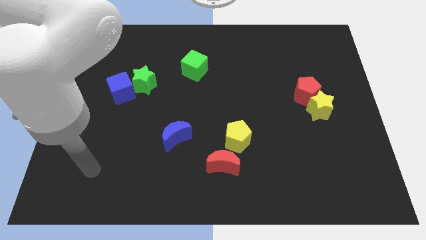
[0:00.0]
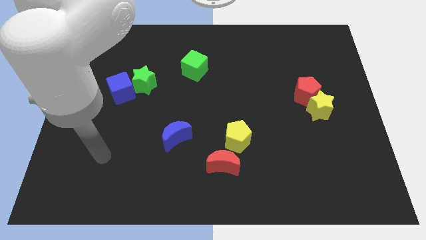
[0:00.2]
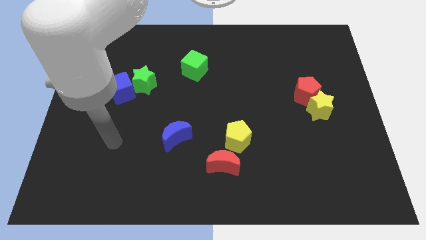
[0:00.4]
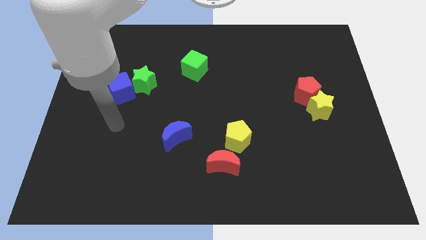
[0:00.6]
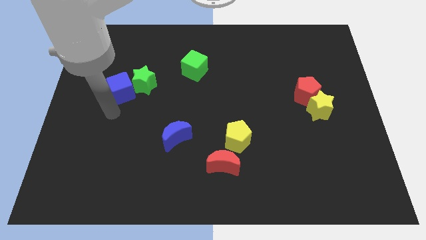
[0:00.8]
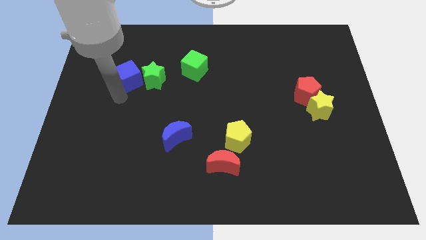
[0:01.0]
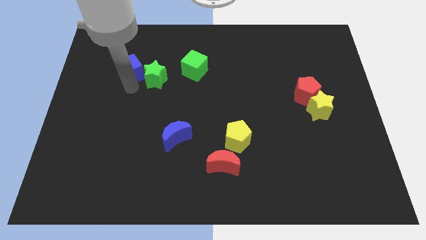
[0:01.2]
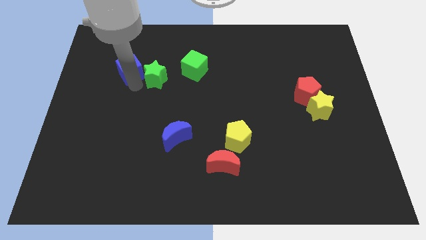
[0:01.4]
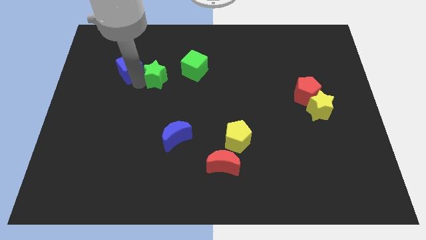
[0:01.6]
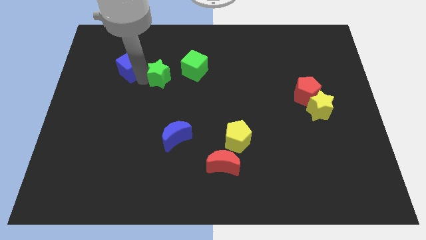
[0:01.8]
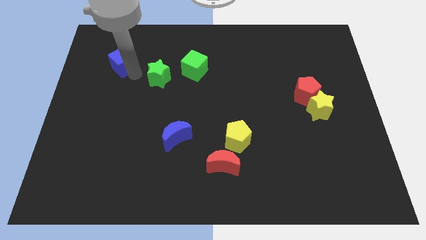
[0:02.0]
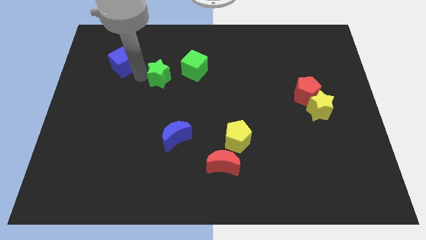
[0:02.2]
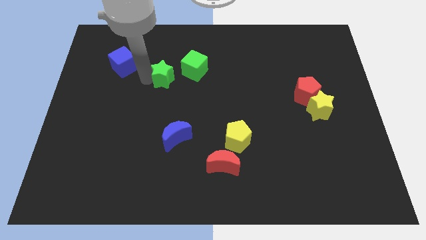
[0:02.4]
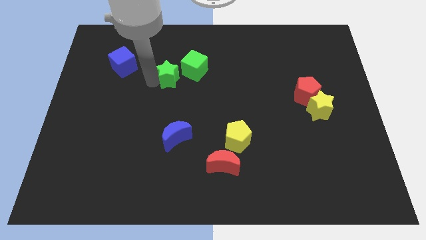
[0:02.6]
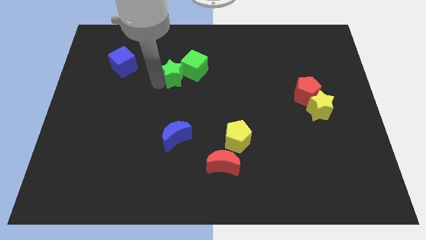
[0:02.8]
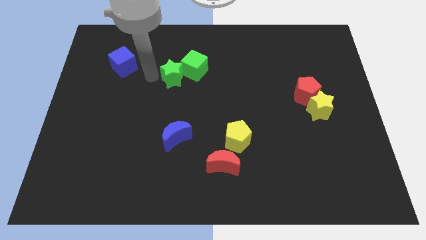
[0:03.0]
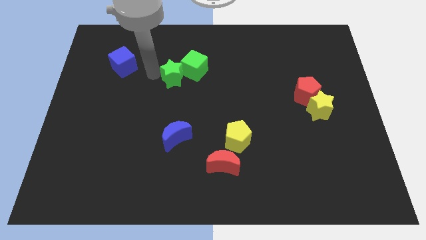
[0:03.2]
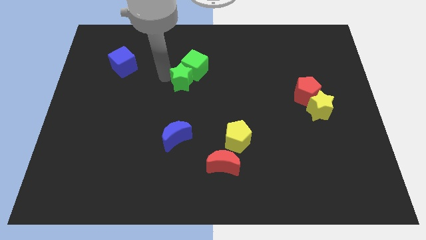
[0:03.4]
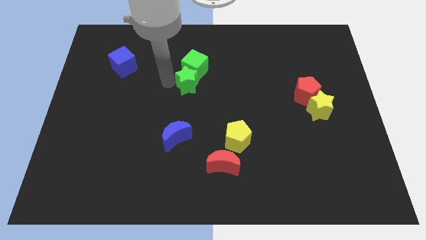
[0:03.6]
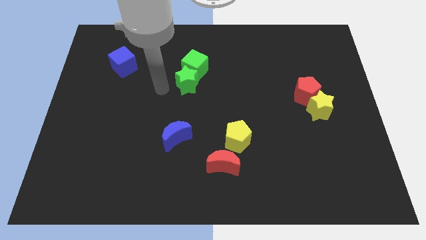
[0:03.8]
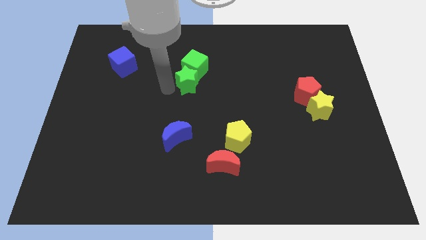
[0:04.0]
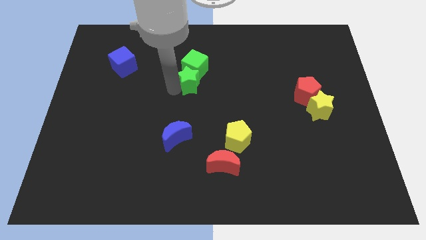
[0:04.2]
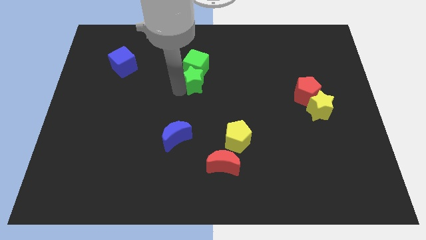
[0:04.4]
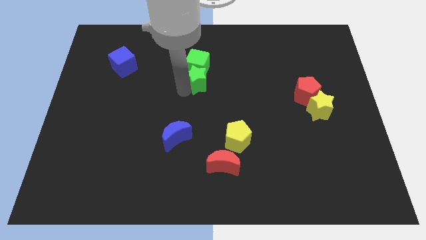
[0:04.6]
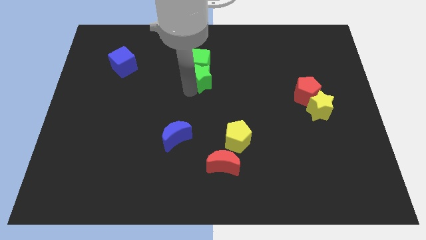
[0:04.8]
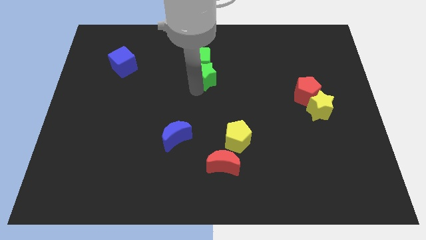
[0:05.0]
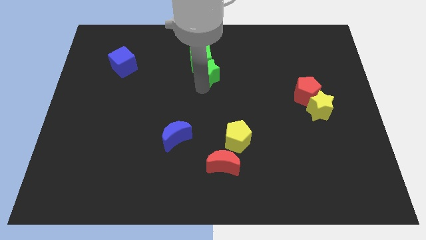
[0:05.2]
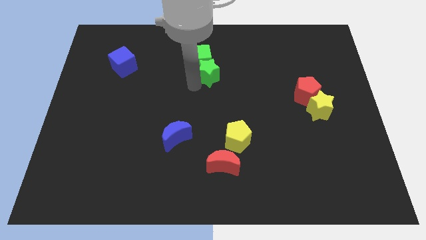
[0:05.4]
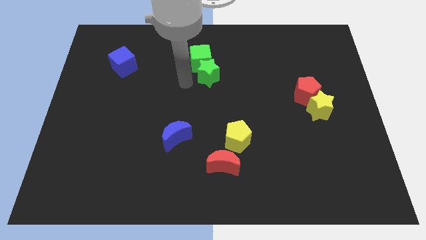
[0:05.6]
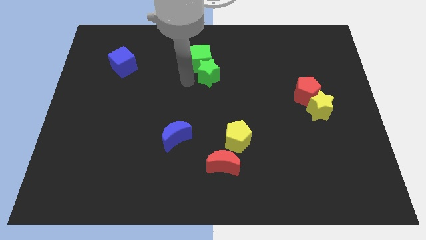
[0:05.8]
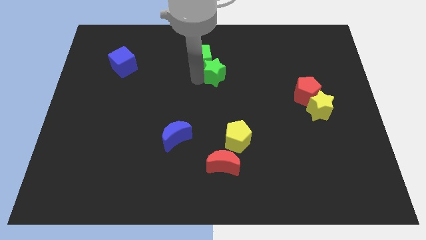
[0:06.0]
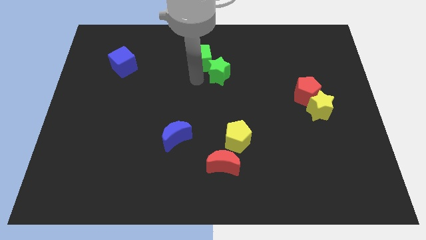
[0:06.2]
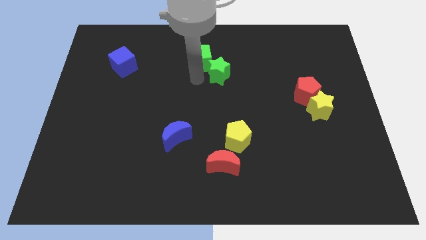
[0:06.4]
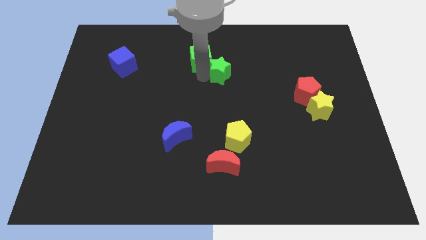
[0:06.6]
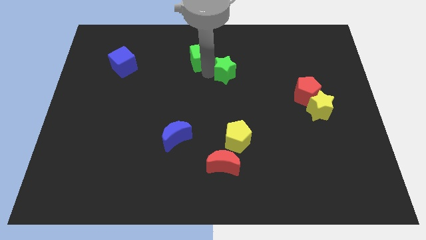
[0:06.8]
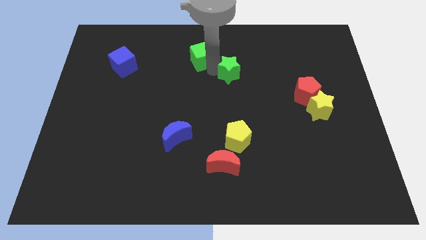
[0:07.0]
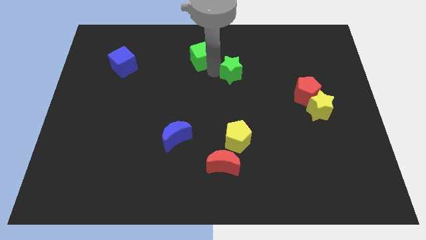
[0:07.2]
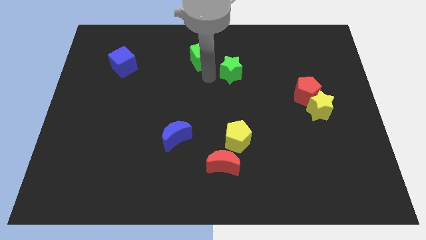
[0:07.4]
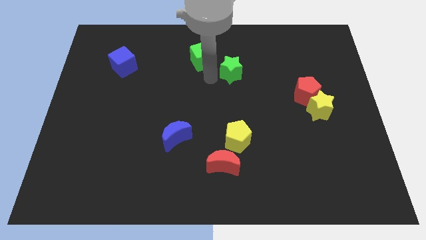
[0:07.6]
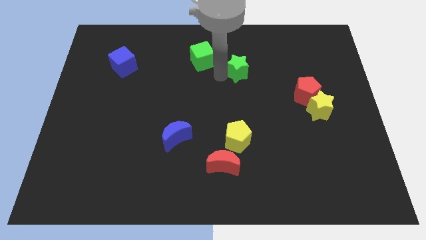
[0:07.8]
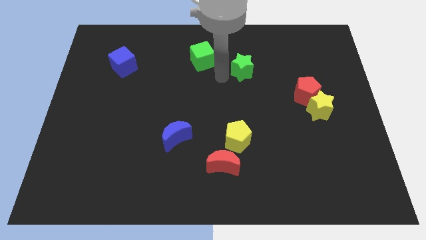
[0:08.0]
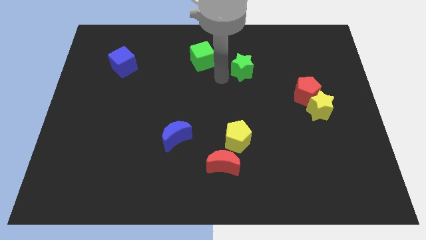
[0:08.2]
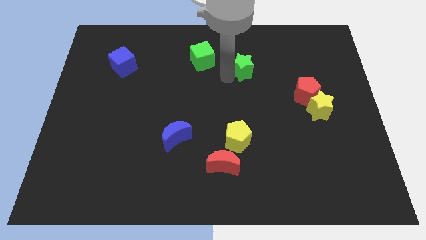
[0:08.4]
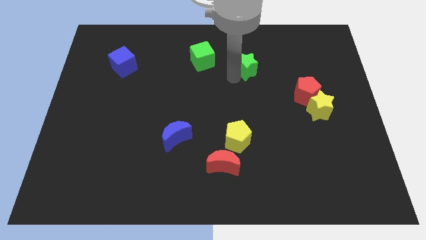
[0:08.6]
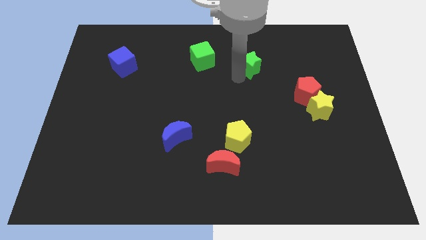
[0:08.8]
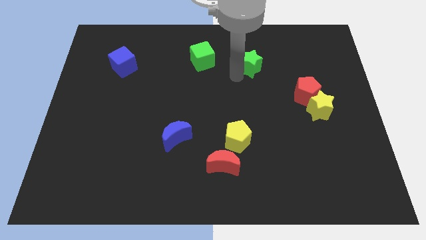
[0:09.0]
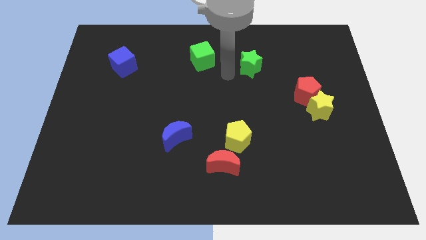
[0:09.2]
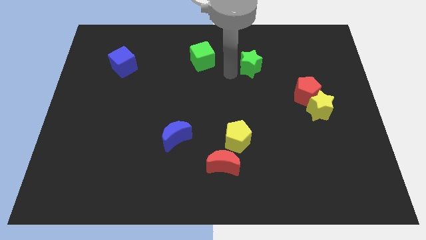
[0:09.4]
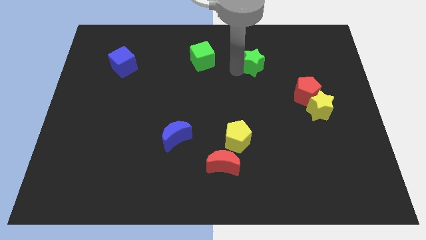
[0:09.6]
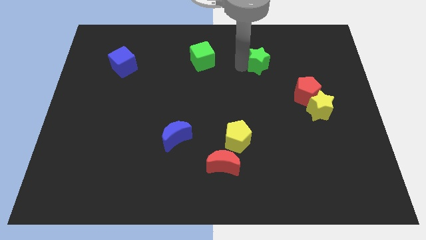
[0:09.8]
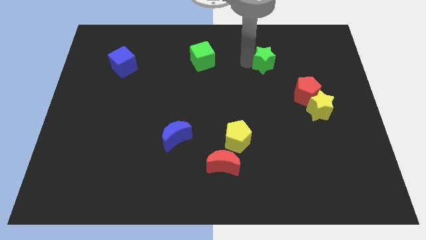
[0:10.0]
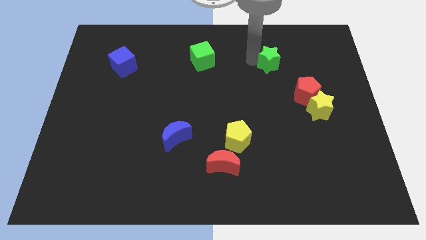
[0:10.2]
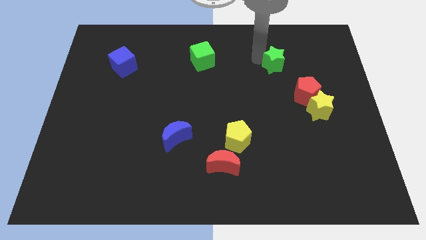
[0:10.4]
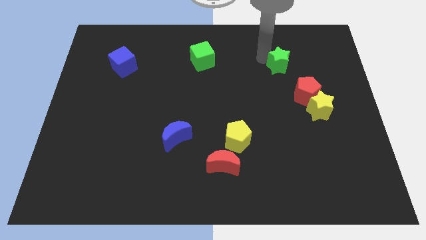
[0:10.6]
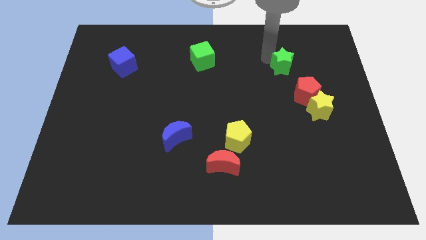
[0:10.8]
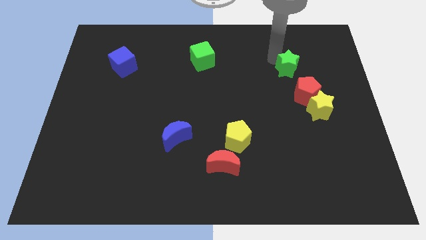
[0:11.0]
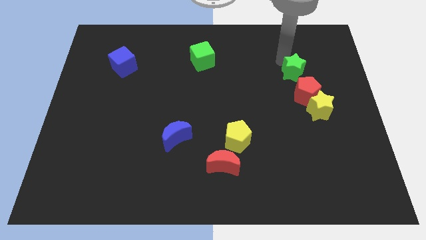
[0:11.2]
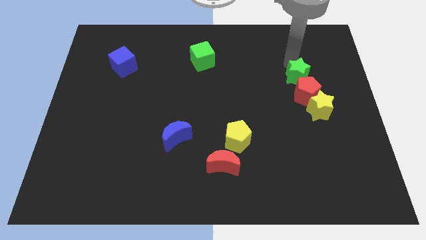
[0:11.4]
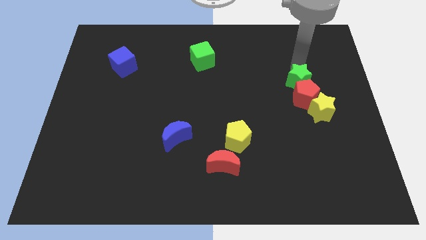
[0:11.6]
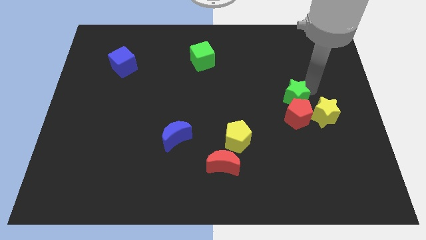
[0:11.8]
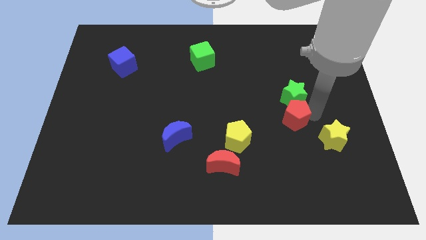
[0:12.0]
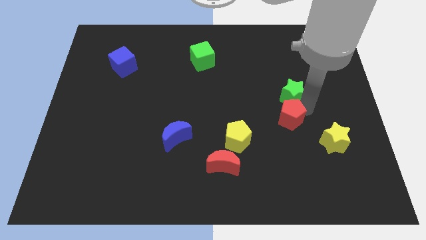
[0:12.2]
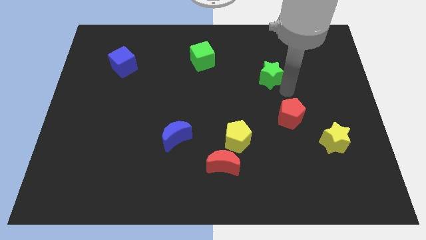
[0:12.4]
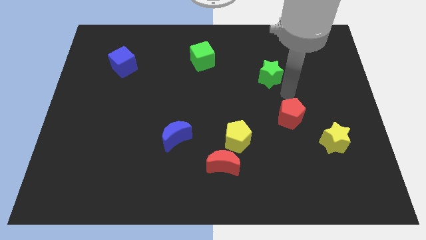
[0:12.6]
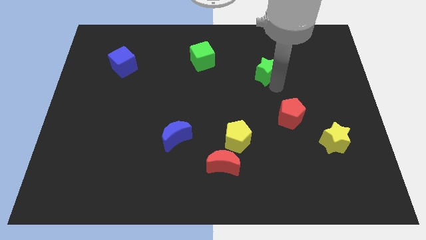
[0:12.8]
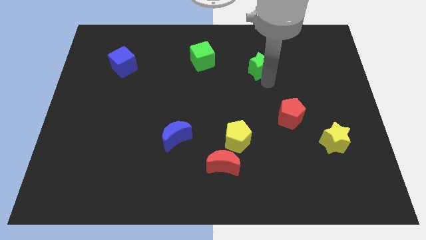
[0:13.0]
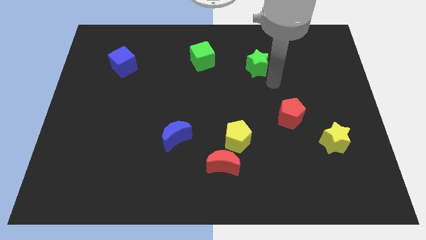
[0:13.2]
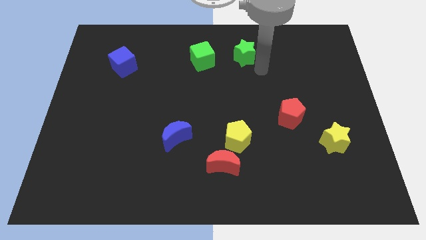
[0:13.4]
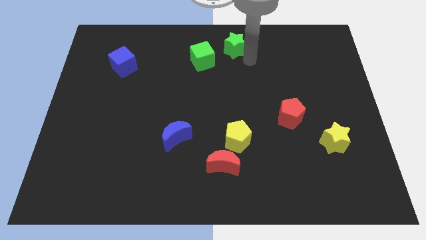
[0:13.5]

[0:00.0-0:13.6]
put the green star to the top

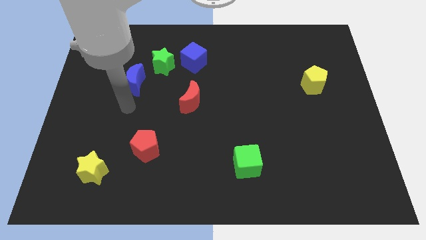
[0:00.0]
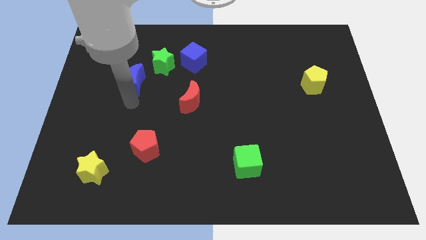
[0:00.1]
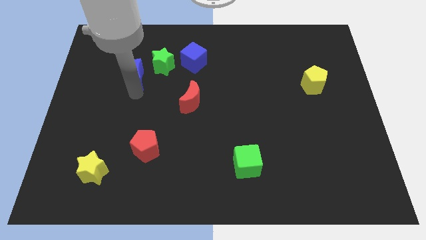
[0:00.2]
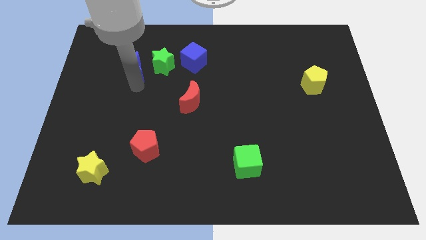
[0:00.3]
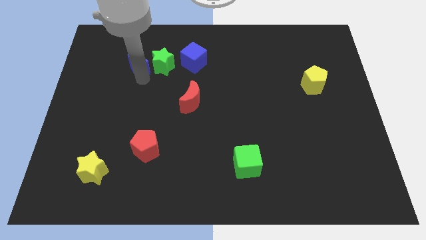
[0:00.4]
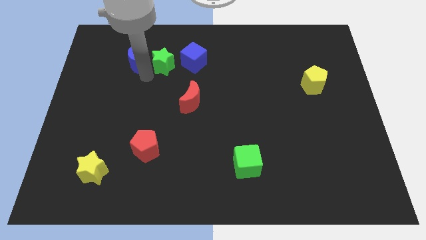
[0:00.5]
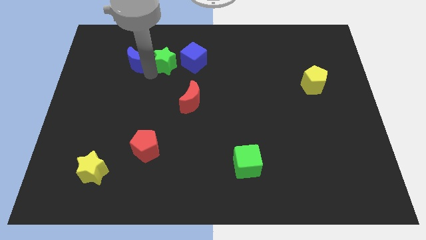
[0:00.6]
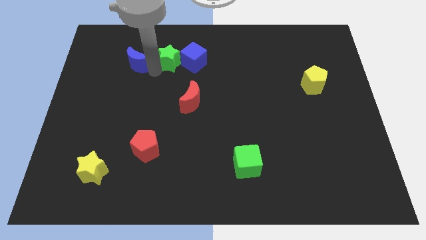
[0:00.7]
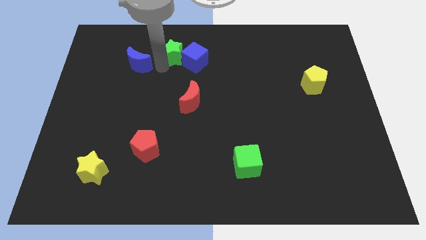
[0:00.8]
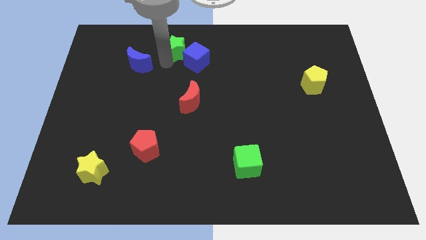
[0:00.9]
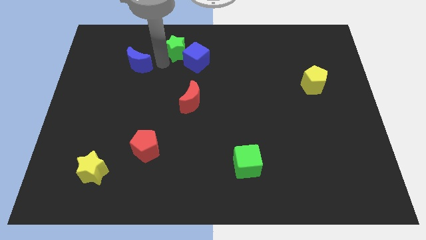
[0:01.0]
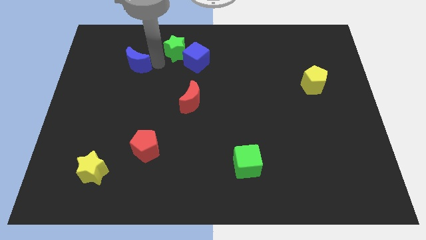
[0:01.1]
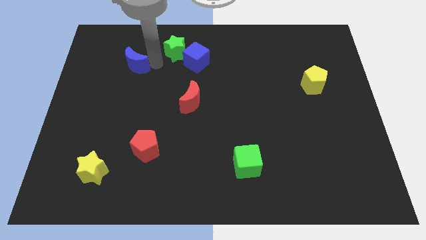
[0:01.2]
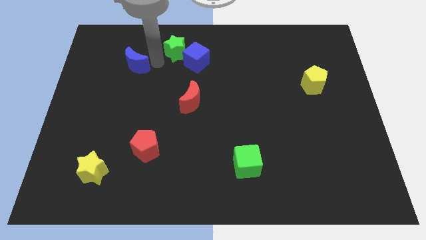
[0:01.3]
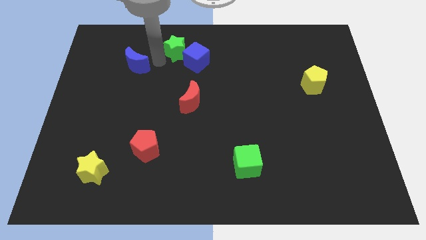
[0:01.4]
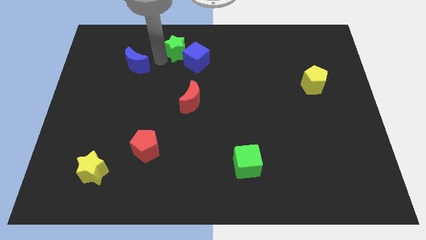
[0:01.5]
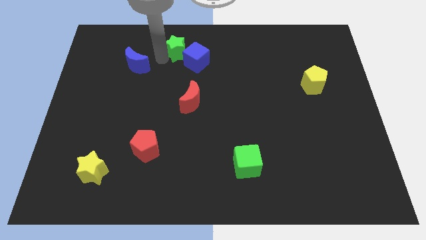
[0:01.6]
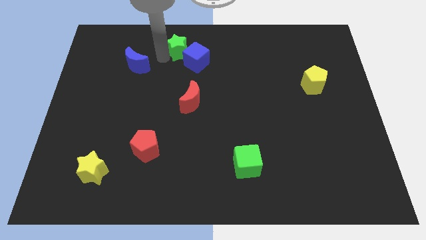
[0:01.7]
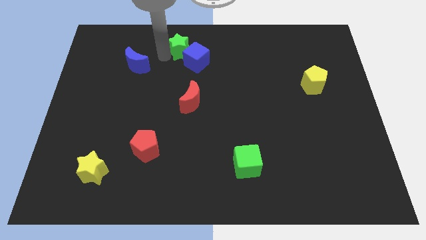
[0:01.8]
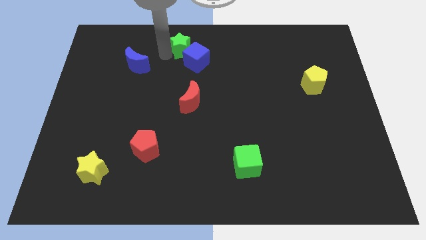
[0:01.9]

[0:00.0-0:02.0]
move the green star to the towards your base
